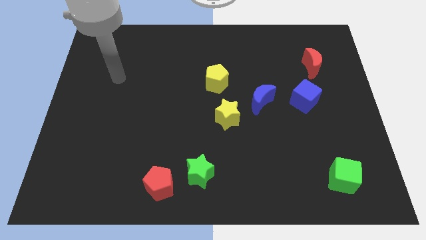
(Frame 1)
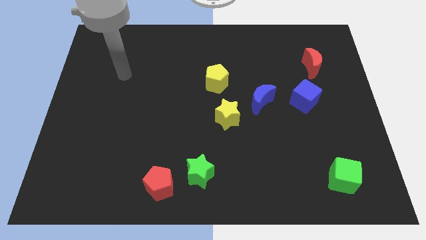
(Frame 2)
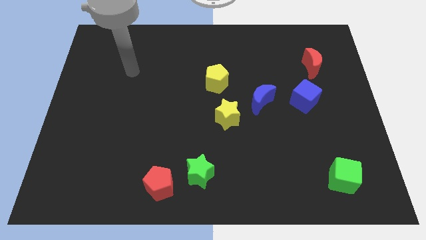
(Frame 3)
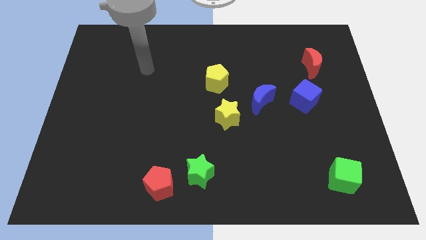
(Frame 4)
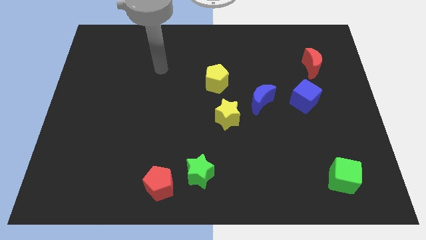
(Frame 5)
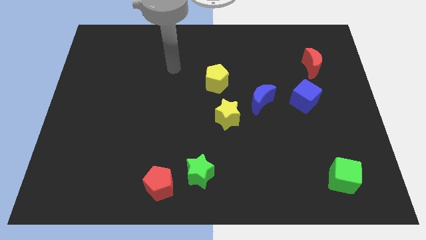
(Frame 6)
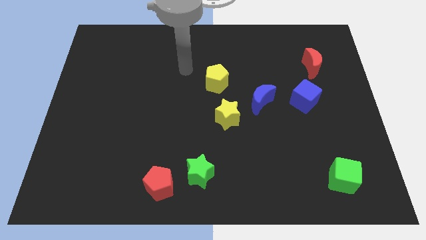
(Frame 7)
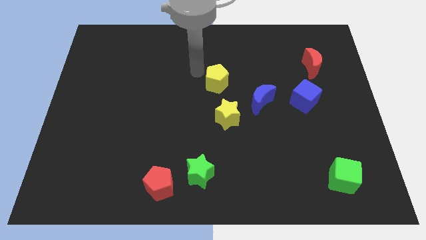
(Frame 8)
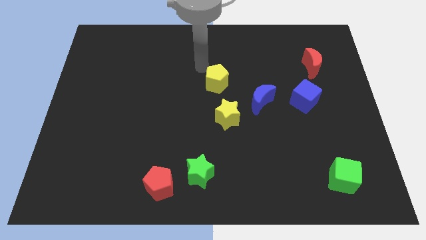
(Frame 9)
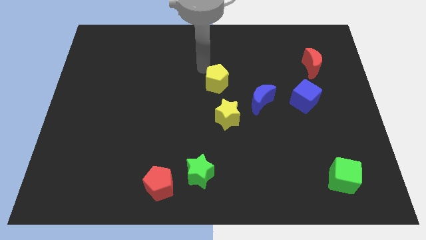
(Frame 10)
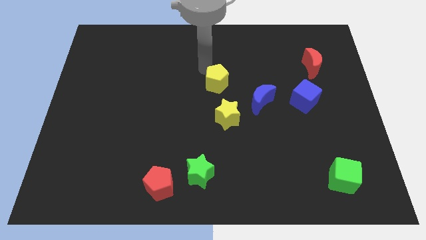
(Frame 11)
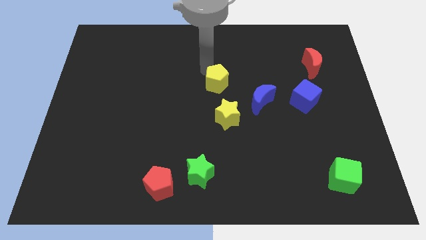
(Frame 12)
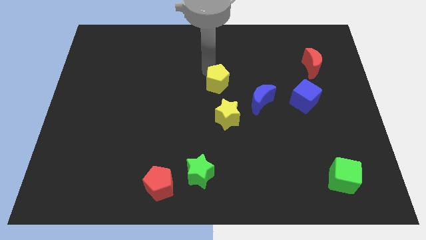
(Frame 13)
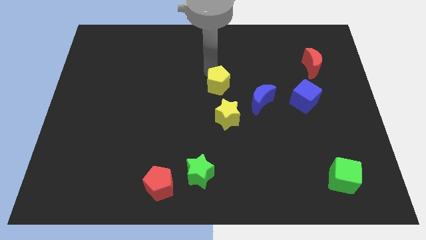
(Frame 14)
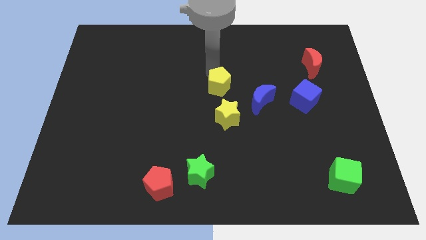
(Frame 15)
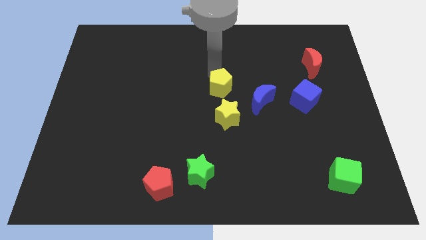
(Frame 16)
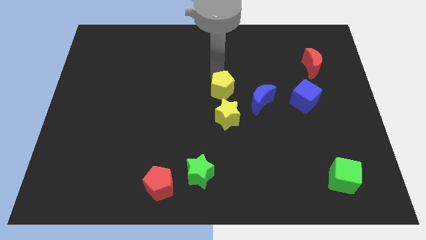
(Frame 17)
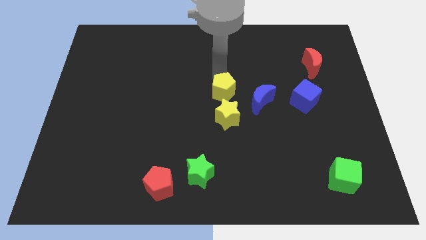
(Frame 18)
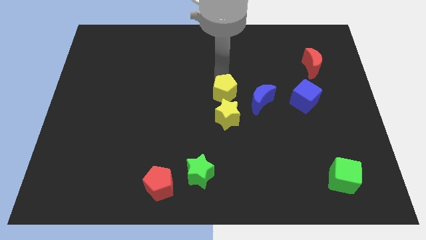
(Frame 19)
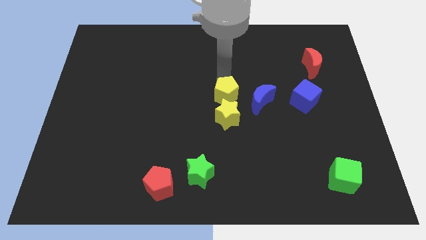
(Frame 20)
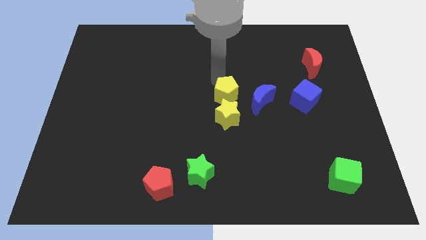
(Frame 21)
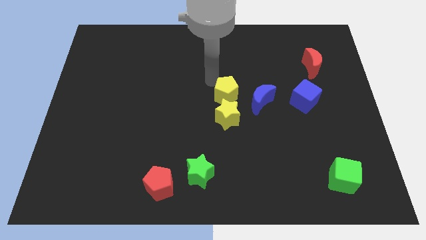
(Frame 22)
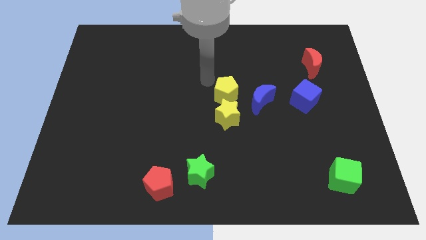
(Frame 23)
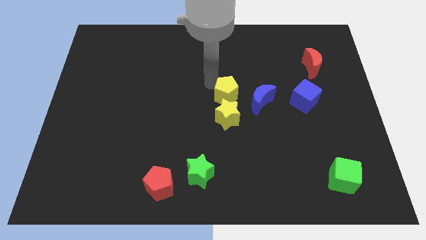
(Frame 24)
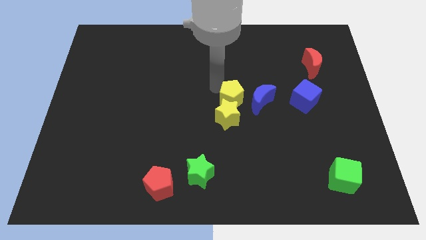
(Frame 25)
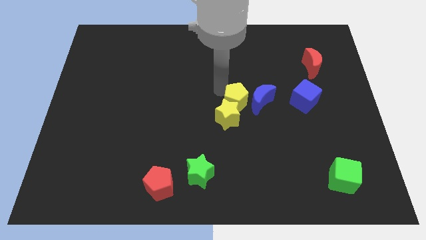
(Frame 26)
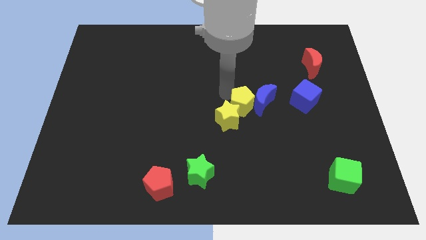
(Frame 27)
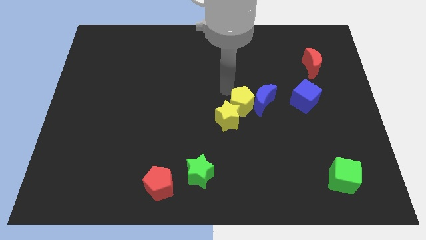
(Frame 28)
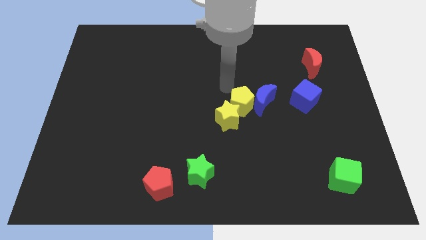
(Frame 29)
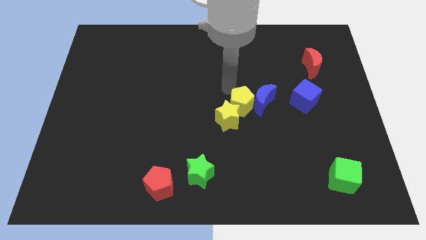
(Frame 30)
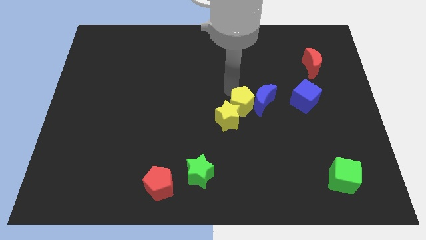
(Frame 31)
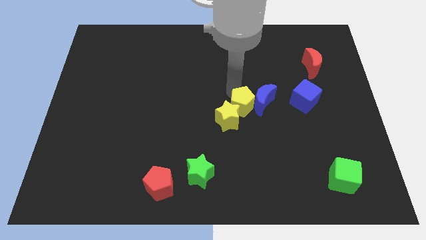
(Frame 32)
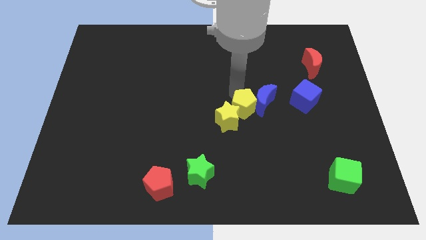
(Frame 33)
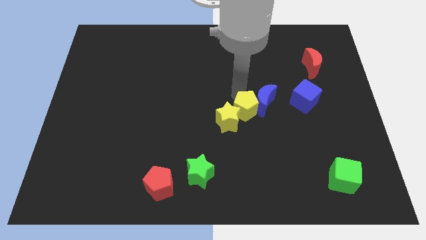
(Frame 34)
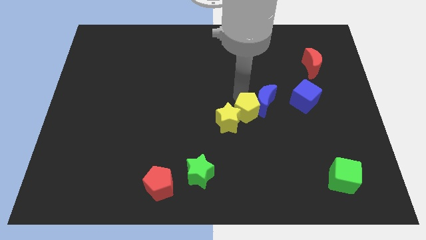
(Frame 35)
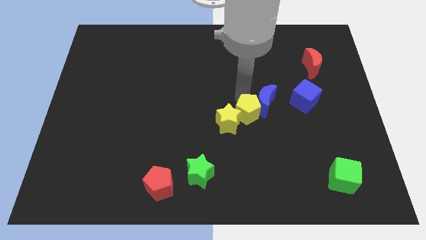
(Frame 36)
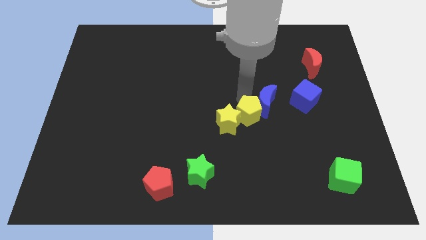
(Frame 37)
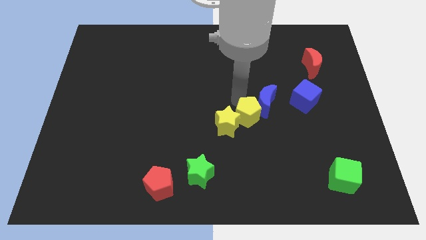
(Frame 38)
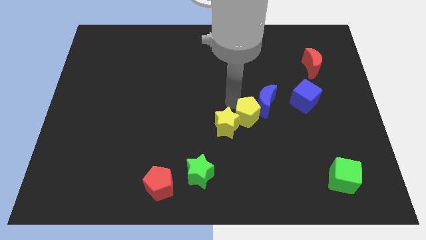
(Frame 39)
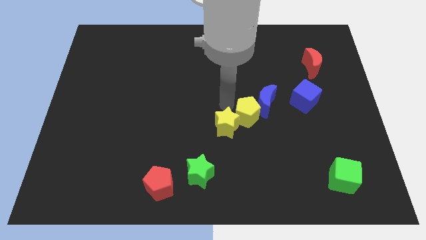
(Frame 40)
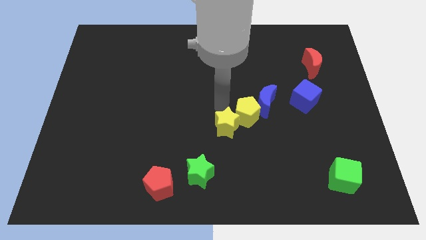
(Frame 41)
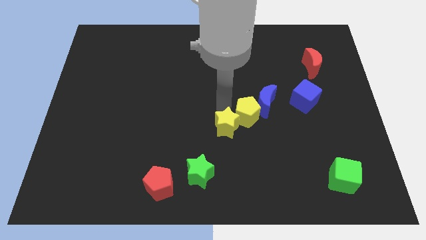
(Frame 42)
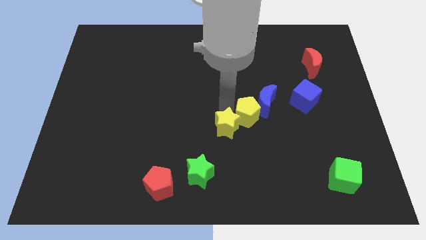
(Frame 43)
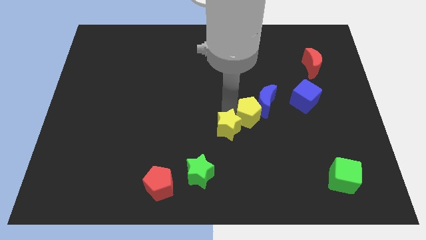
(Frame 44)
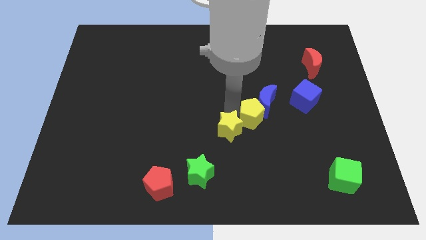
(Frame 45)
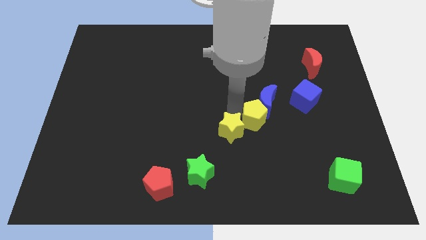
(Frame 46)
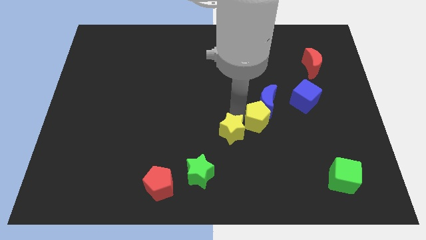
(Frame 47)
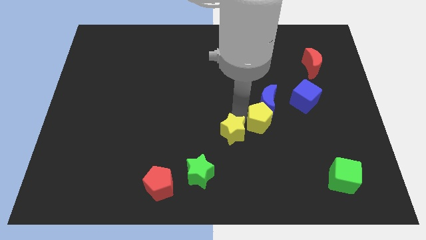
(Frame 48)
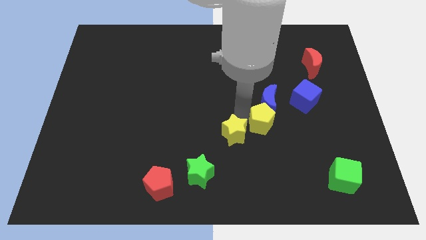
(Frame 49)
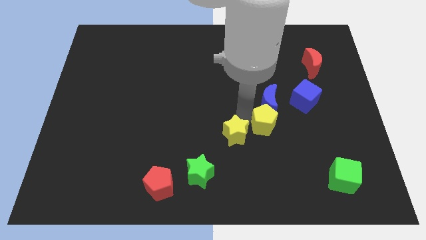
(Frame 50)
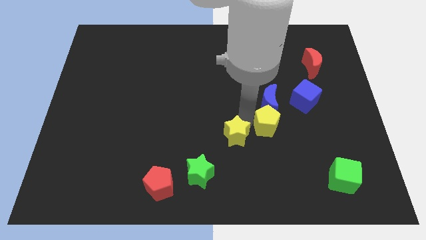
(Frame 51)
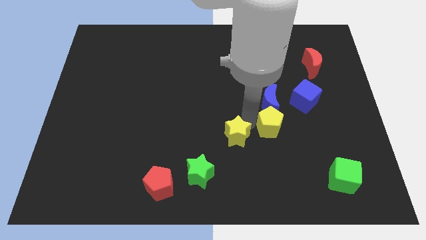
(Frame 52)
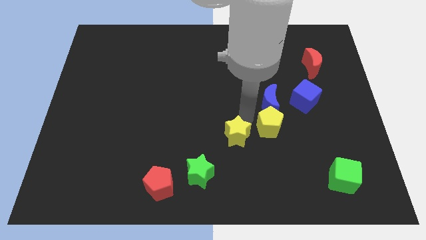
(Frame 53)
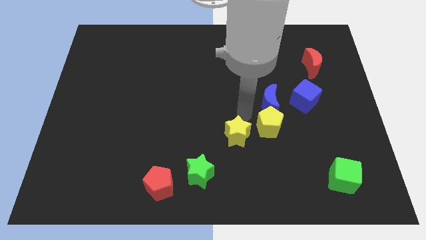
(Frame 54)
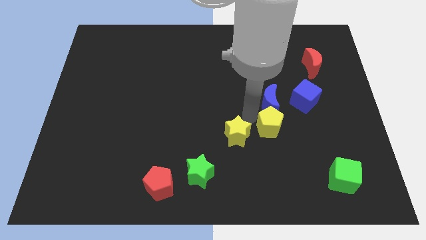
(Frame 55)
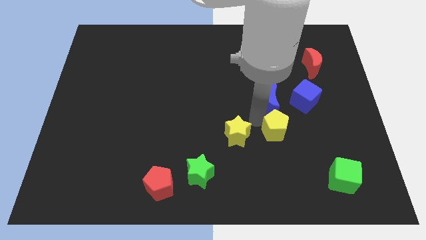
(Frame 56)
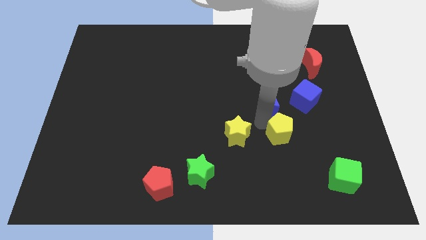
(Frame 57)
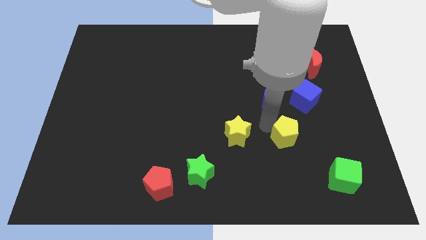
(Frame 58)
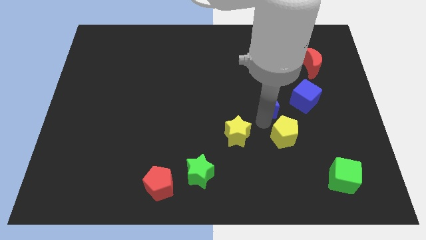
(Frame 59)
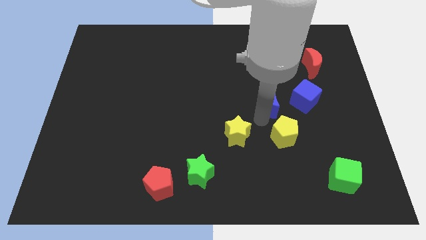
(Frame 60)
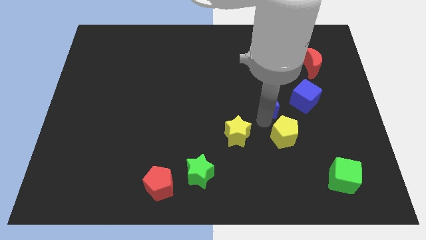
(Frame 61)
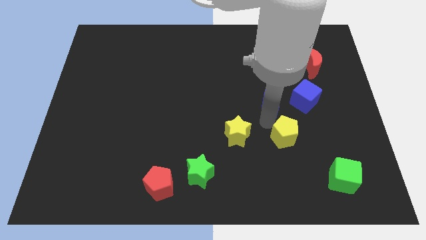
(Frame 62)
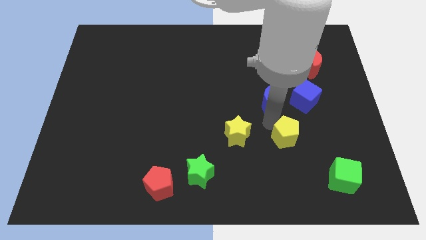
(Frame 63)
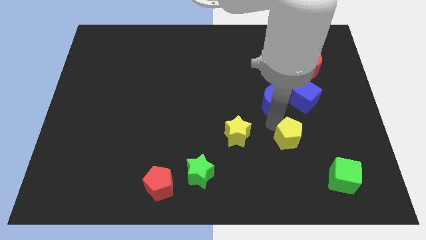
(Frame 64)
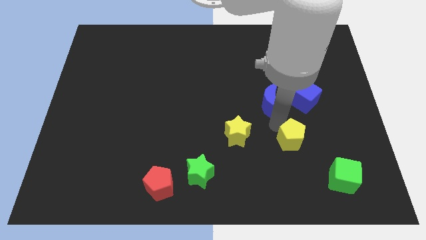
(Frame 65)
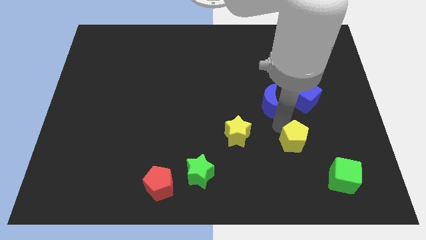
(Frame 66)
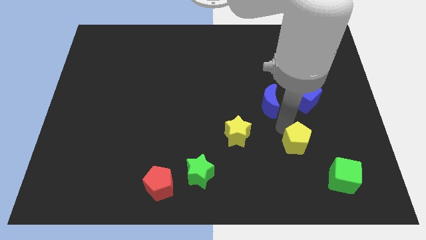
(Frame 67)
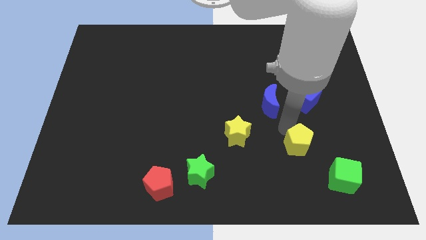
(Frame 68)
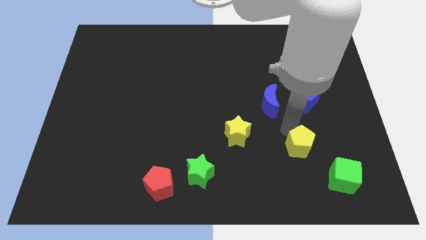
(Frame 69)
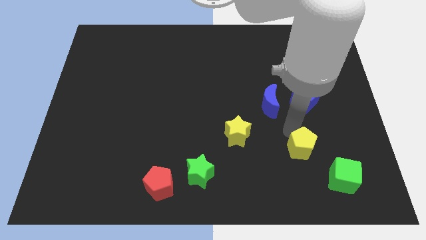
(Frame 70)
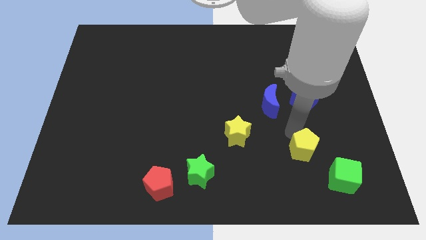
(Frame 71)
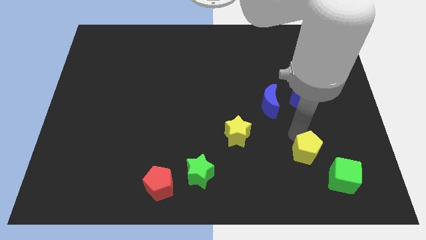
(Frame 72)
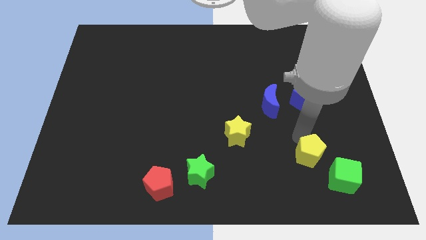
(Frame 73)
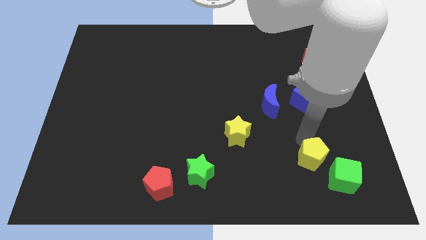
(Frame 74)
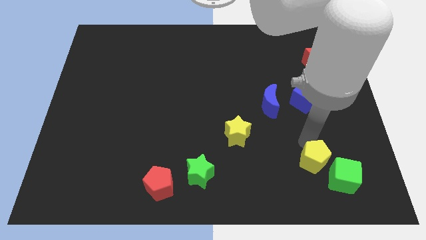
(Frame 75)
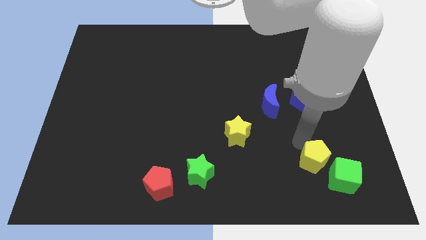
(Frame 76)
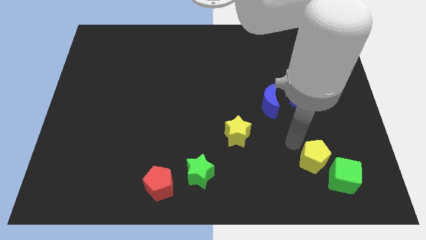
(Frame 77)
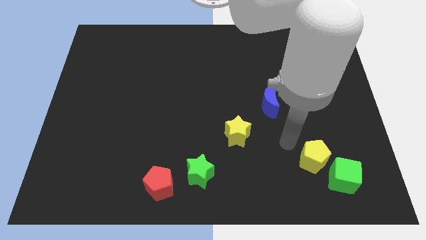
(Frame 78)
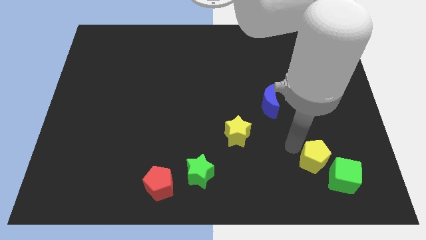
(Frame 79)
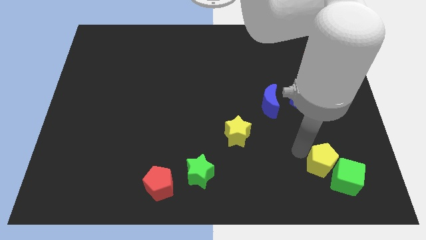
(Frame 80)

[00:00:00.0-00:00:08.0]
push the yellow pentagon towards the green cube
